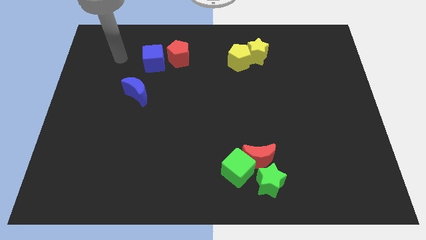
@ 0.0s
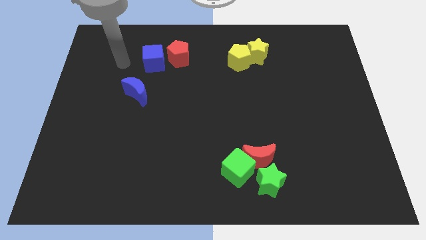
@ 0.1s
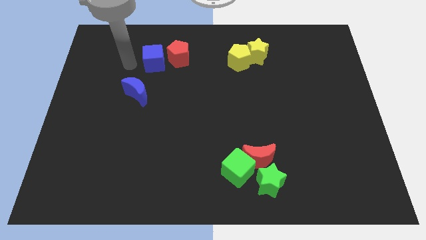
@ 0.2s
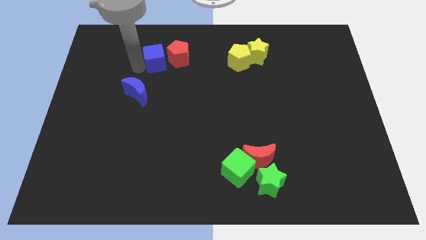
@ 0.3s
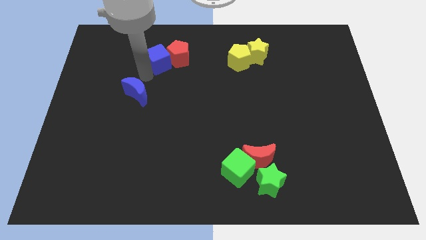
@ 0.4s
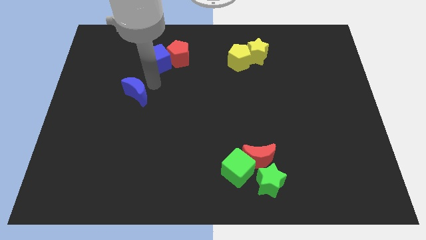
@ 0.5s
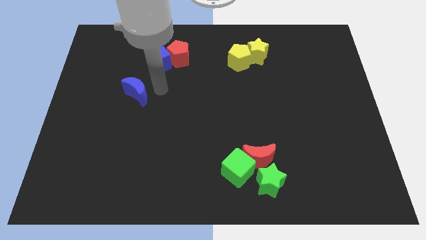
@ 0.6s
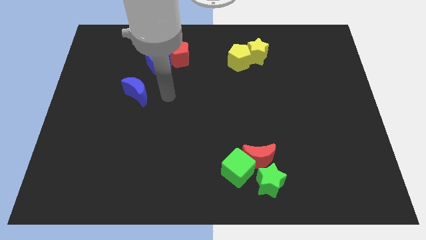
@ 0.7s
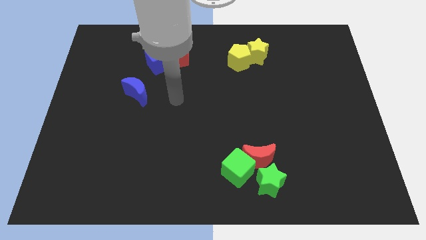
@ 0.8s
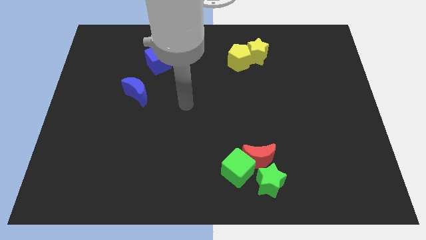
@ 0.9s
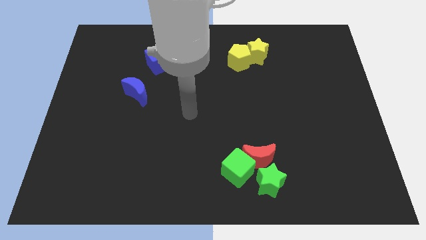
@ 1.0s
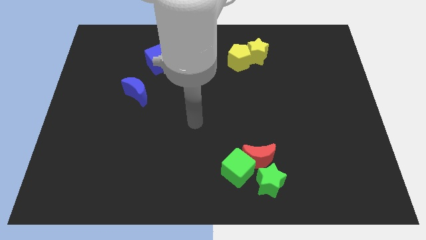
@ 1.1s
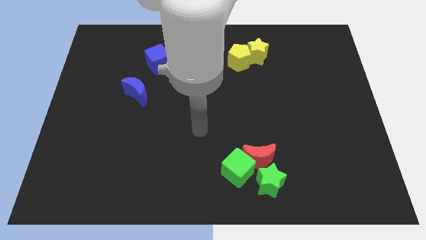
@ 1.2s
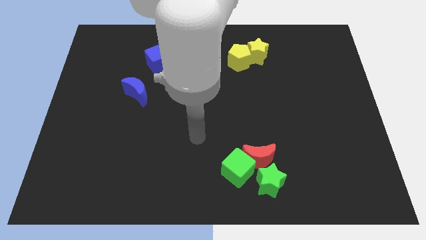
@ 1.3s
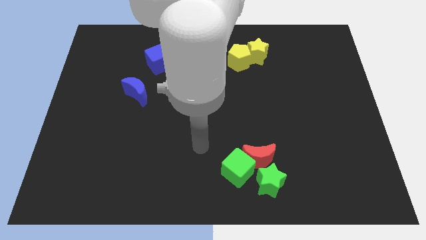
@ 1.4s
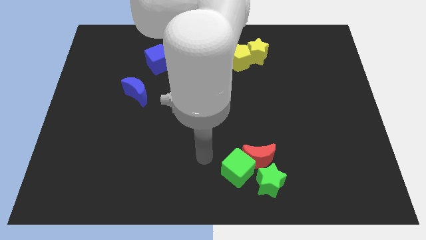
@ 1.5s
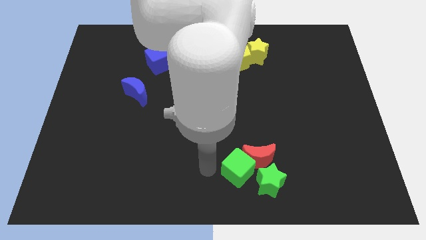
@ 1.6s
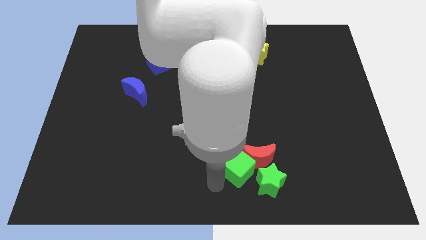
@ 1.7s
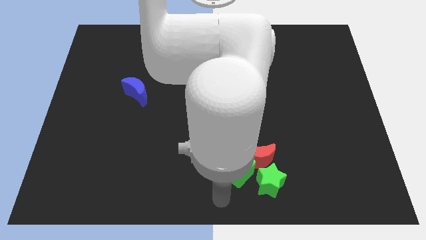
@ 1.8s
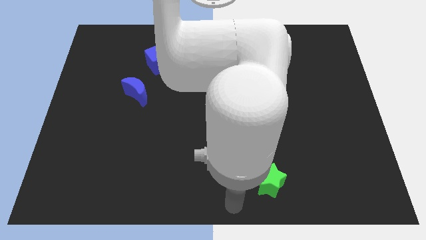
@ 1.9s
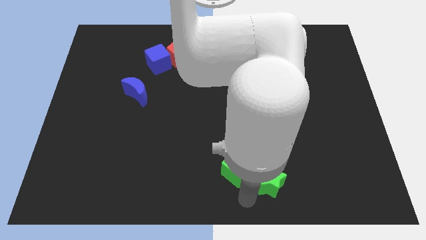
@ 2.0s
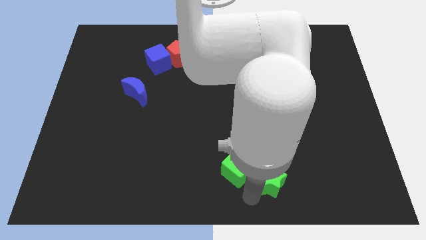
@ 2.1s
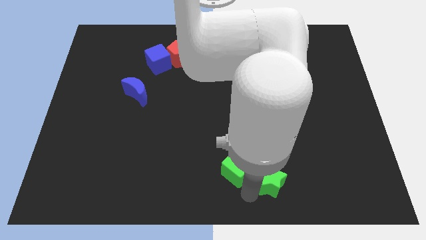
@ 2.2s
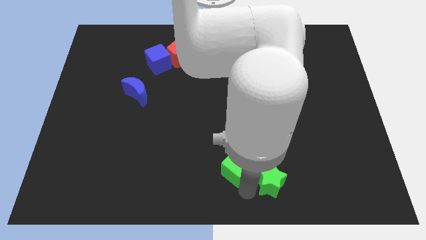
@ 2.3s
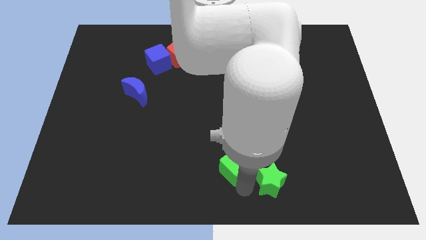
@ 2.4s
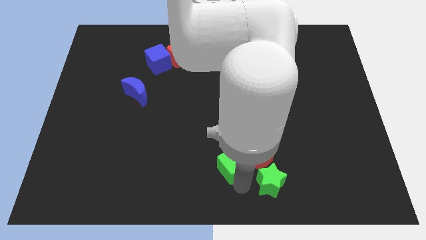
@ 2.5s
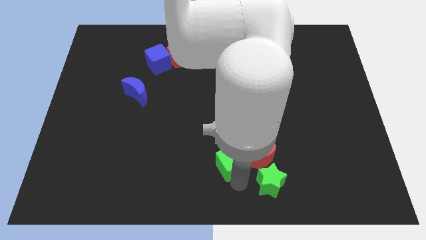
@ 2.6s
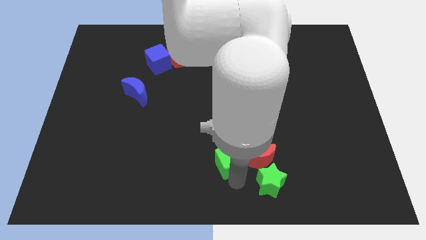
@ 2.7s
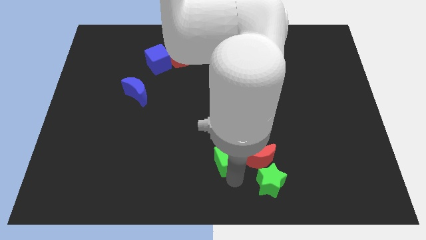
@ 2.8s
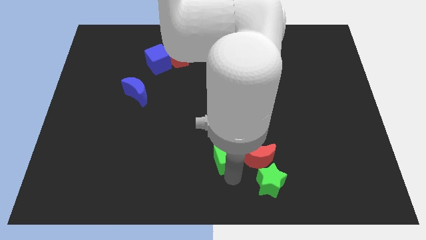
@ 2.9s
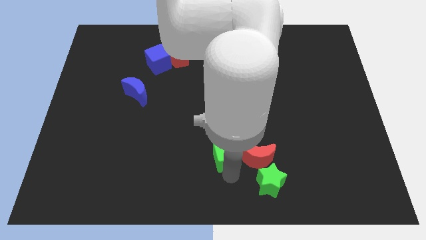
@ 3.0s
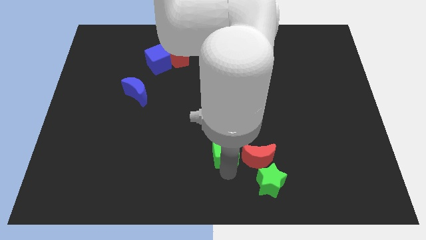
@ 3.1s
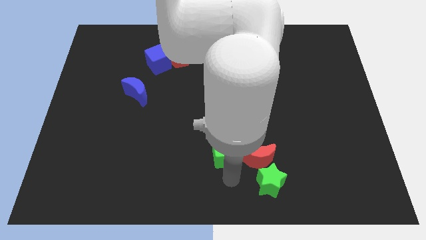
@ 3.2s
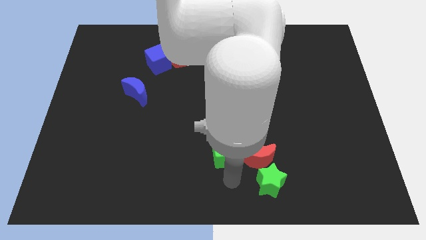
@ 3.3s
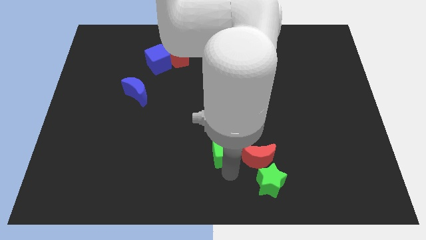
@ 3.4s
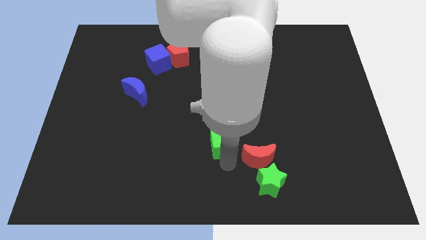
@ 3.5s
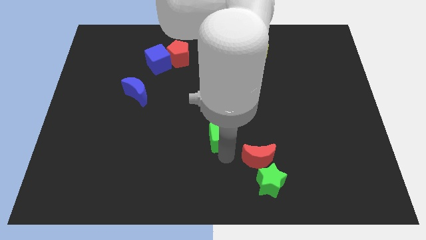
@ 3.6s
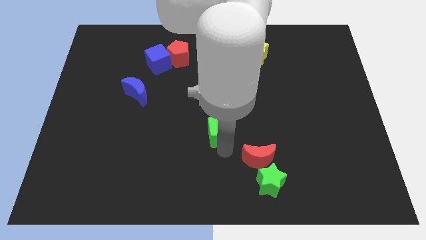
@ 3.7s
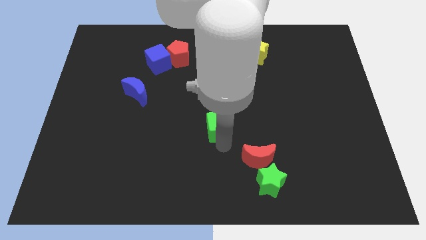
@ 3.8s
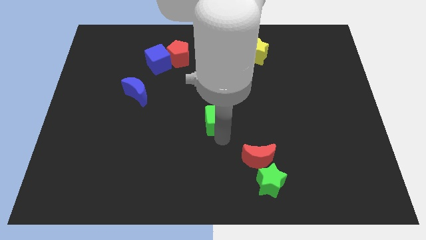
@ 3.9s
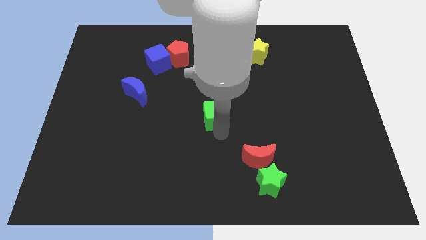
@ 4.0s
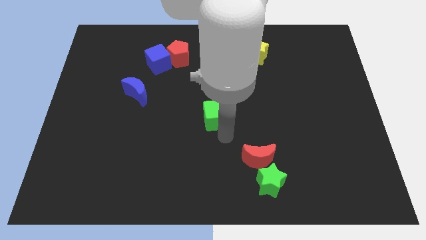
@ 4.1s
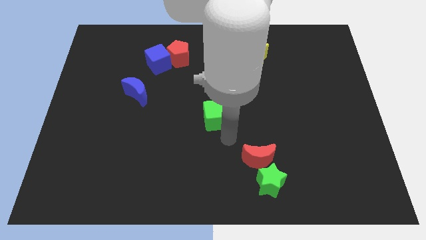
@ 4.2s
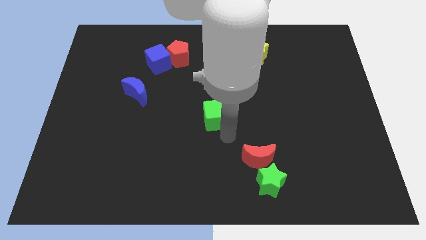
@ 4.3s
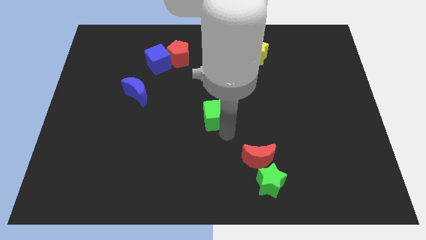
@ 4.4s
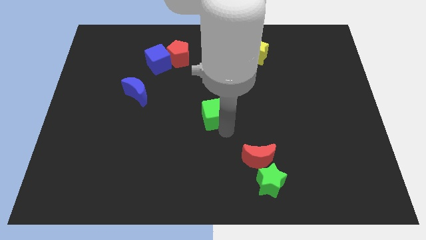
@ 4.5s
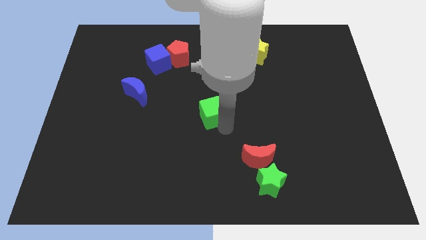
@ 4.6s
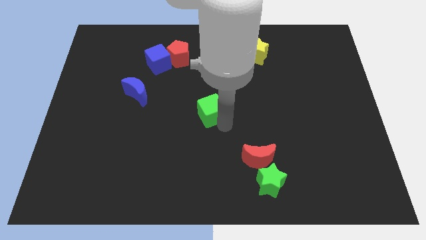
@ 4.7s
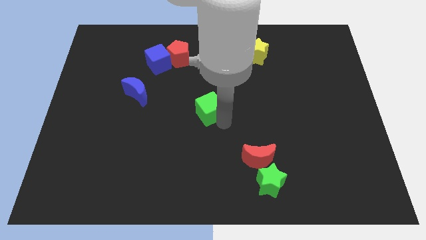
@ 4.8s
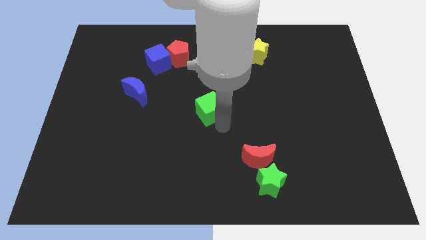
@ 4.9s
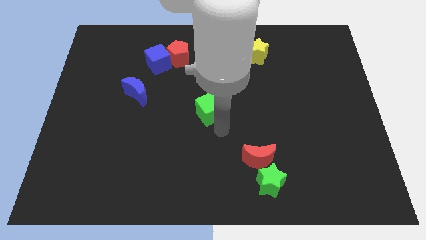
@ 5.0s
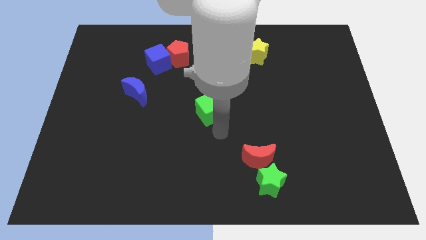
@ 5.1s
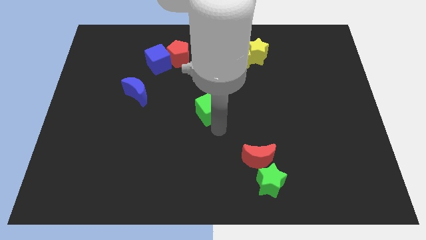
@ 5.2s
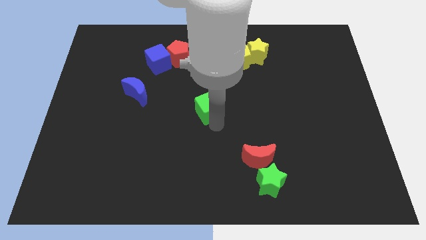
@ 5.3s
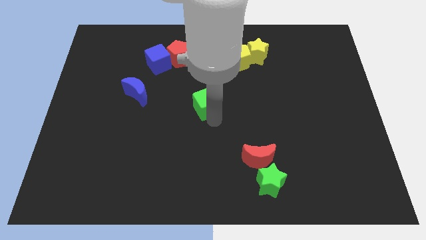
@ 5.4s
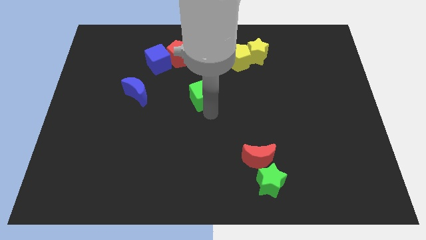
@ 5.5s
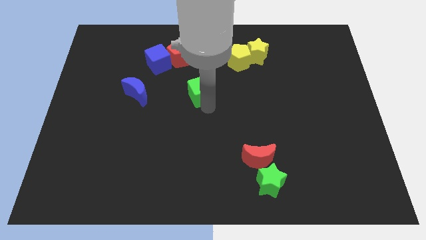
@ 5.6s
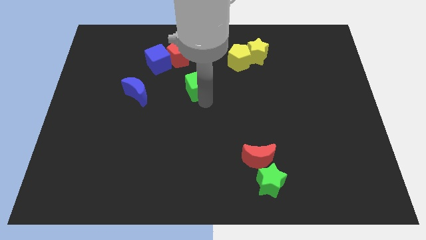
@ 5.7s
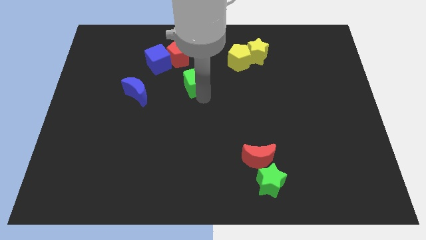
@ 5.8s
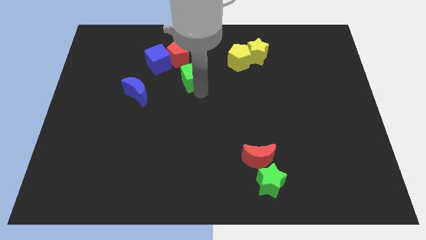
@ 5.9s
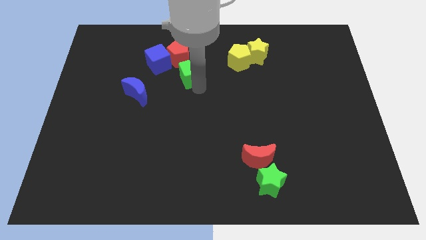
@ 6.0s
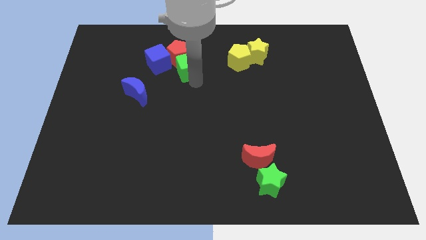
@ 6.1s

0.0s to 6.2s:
slide the green cube next to the red pentagon

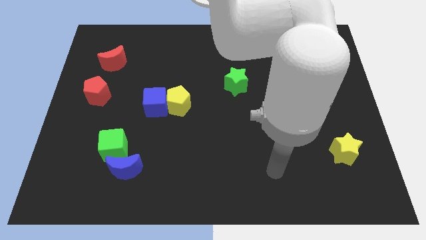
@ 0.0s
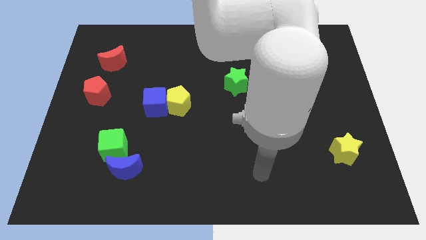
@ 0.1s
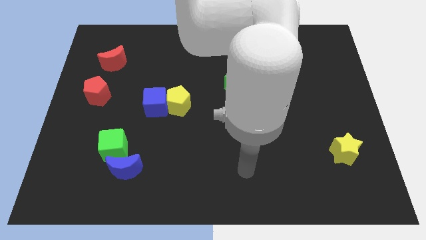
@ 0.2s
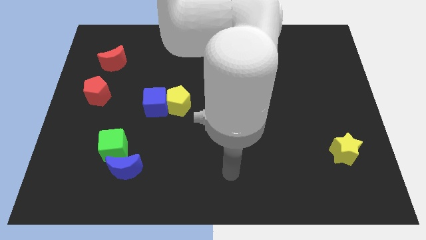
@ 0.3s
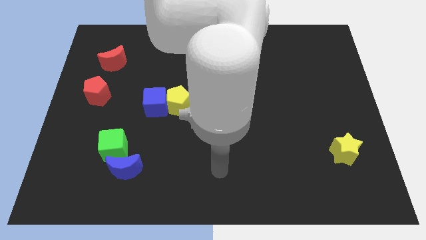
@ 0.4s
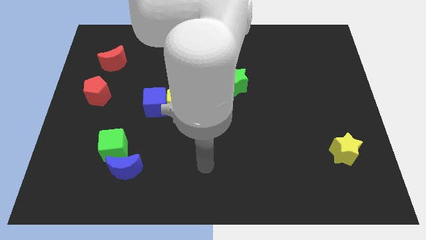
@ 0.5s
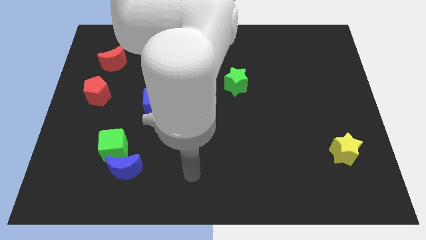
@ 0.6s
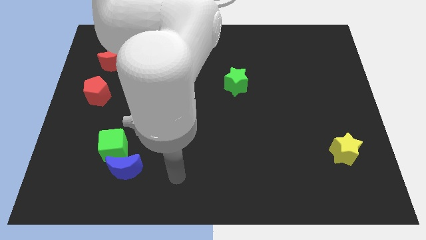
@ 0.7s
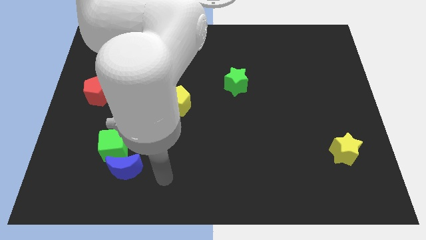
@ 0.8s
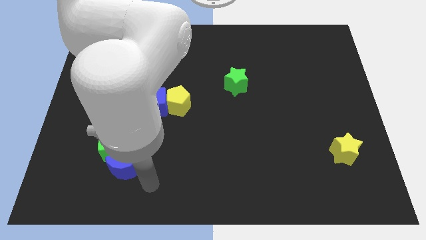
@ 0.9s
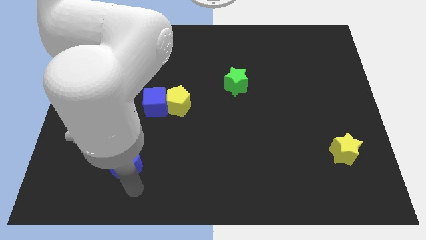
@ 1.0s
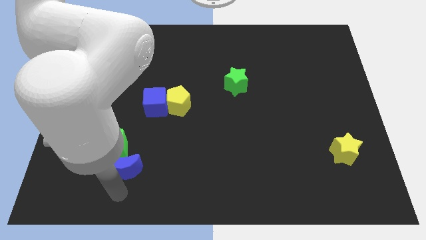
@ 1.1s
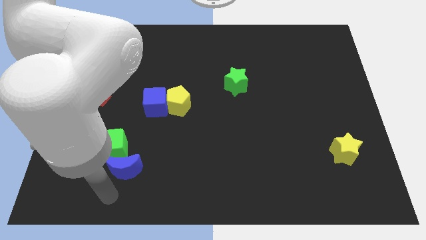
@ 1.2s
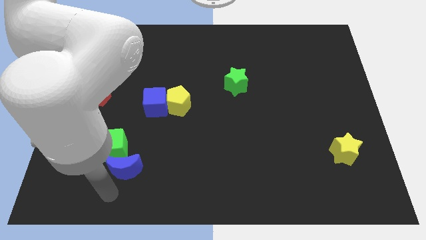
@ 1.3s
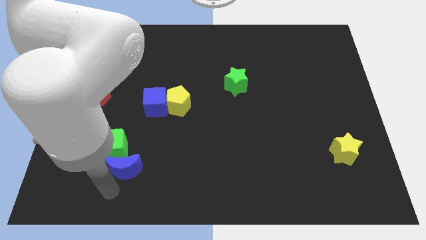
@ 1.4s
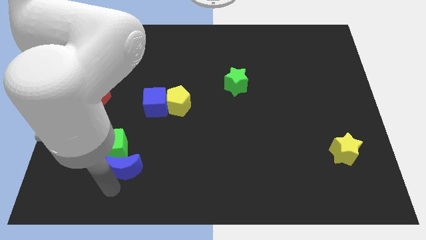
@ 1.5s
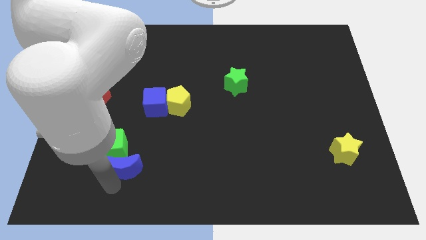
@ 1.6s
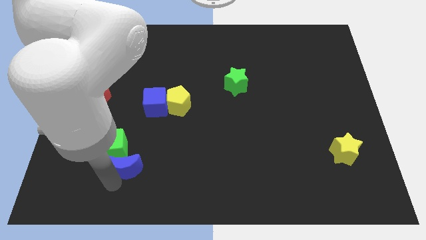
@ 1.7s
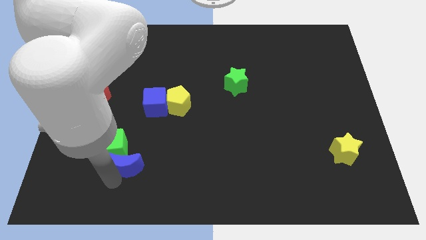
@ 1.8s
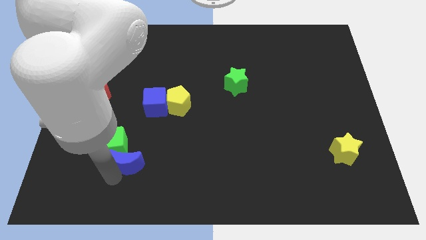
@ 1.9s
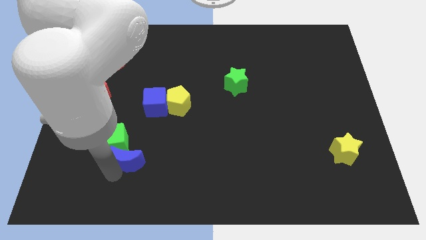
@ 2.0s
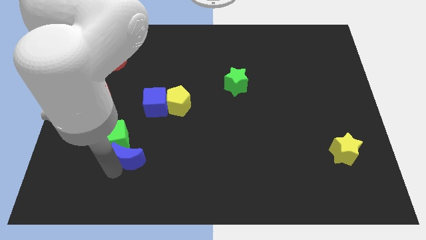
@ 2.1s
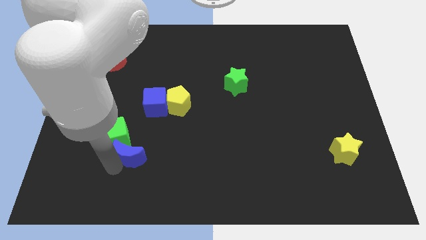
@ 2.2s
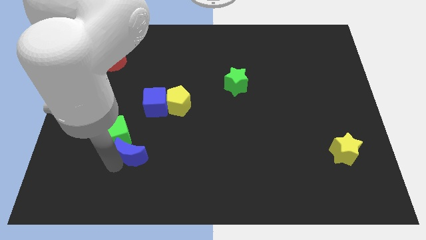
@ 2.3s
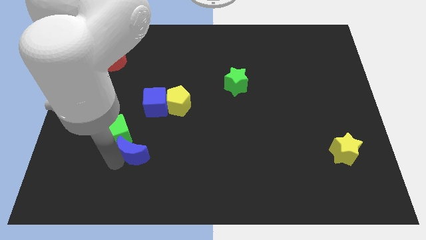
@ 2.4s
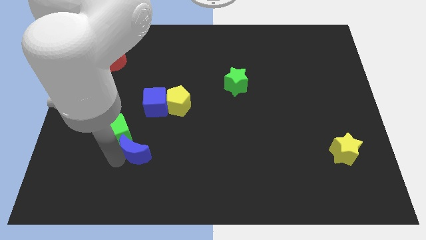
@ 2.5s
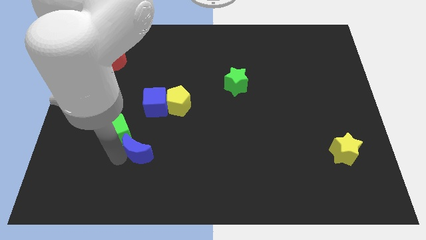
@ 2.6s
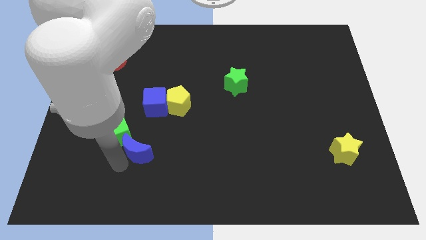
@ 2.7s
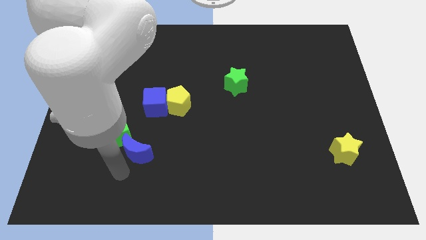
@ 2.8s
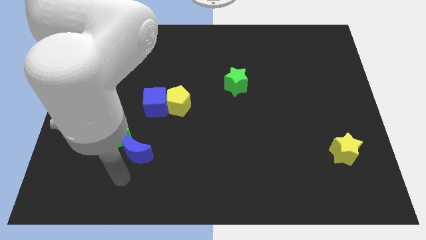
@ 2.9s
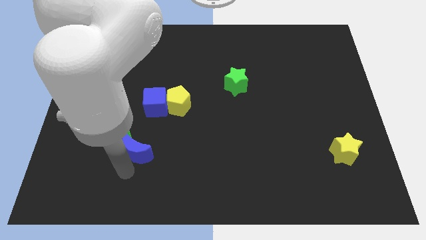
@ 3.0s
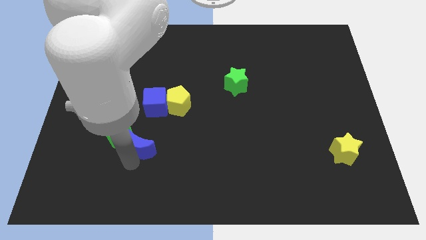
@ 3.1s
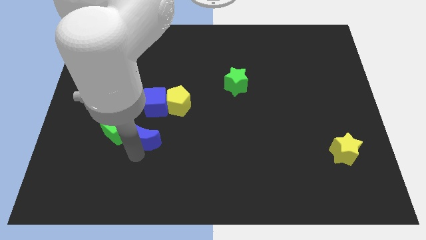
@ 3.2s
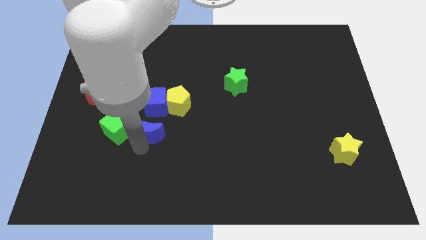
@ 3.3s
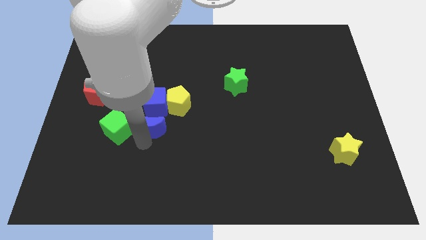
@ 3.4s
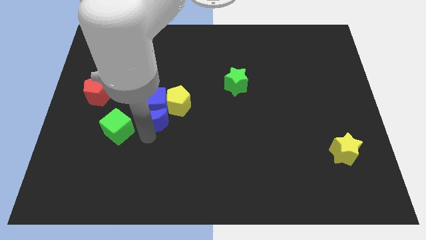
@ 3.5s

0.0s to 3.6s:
slide the blue moon towards the blue cube
